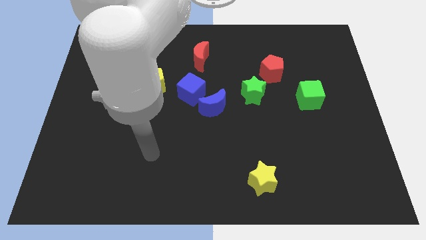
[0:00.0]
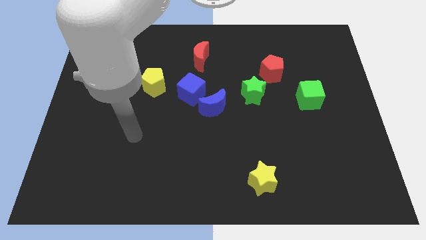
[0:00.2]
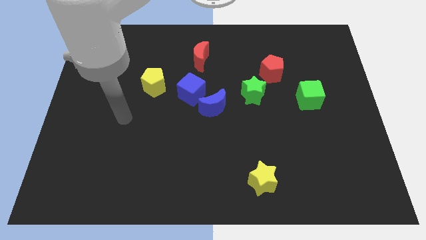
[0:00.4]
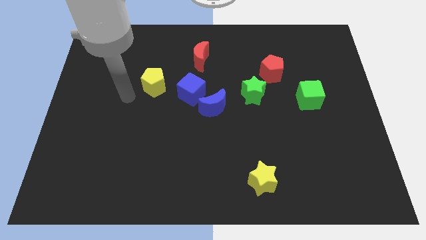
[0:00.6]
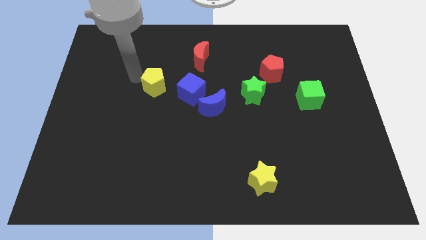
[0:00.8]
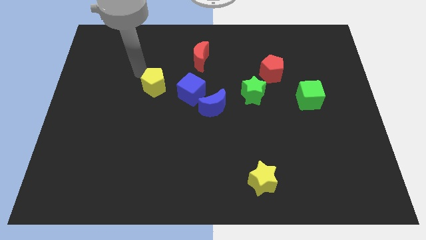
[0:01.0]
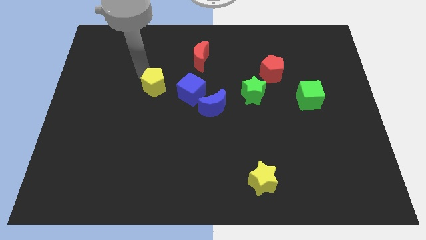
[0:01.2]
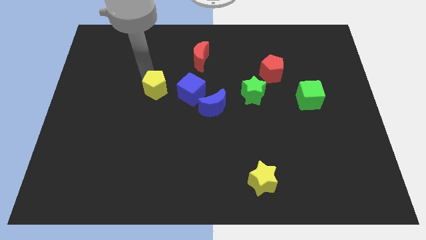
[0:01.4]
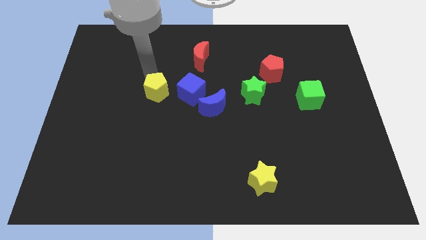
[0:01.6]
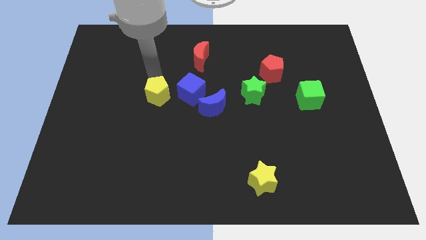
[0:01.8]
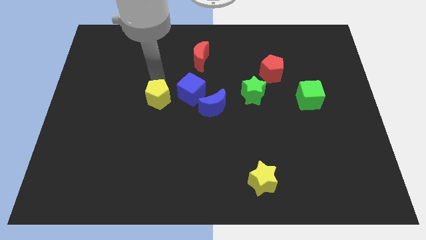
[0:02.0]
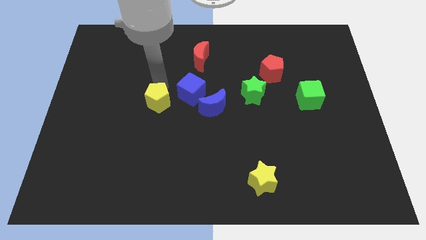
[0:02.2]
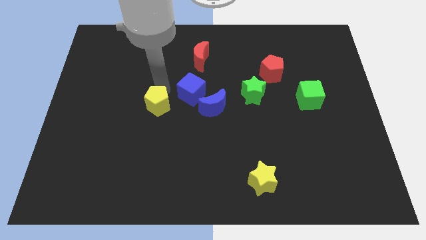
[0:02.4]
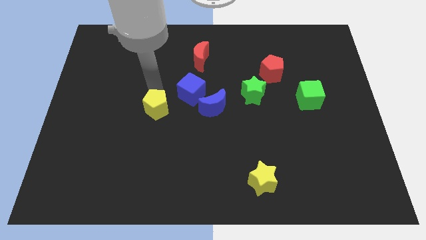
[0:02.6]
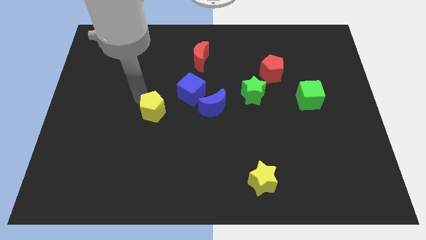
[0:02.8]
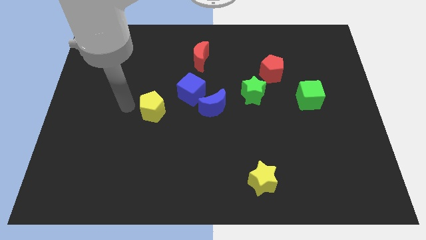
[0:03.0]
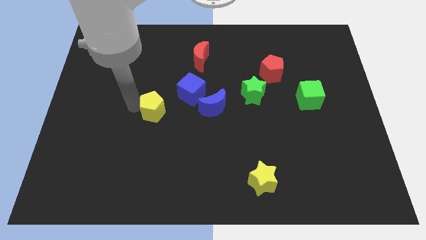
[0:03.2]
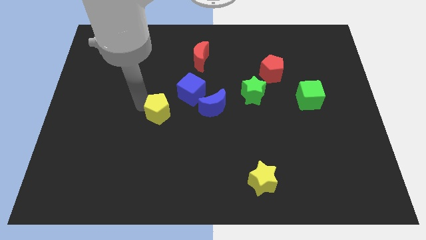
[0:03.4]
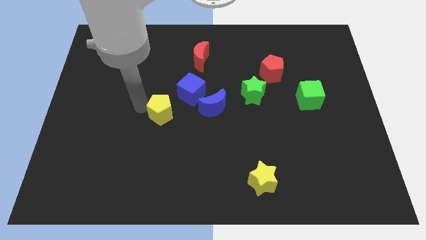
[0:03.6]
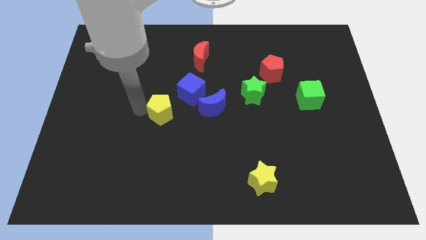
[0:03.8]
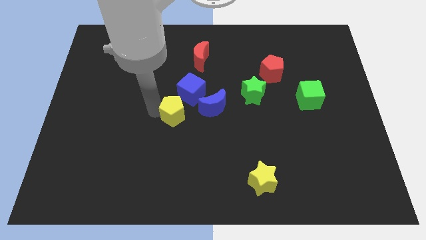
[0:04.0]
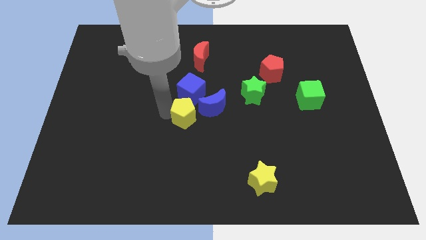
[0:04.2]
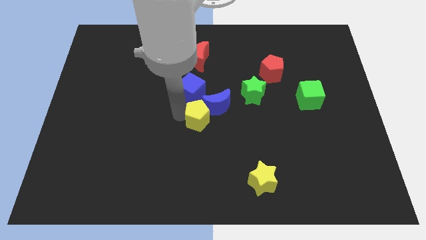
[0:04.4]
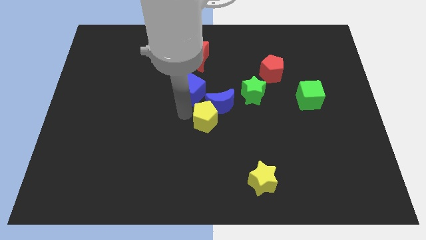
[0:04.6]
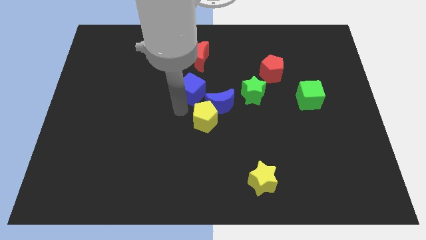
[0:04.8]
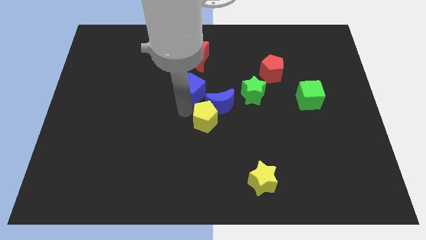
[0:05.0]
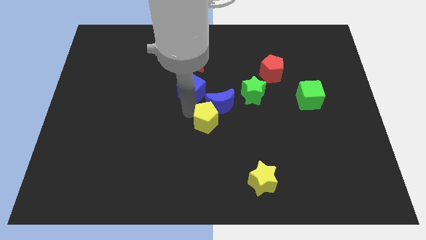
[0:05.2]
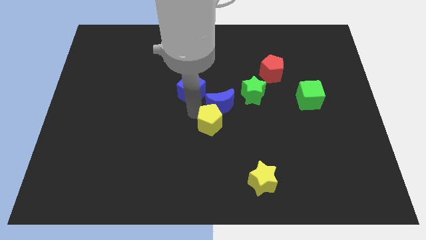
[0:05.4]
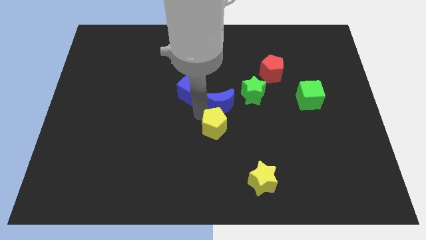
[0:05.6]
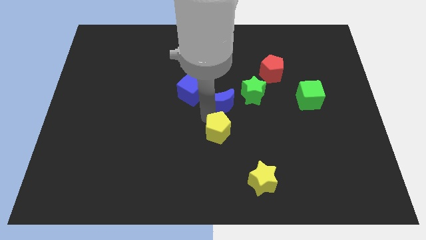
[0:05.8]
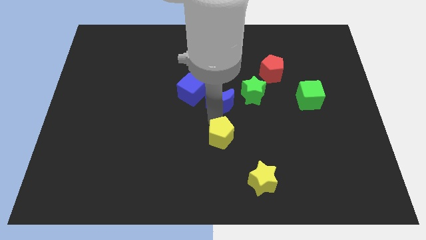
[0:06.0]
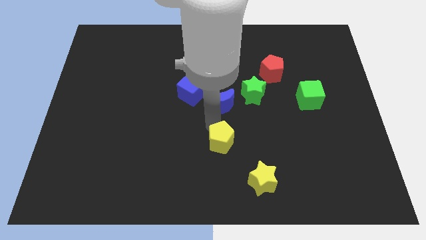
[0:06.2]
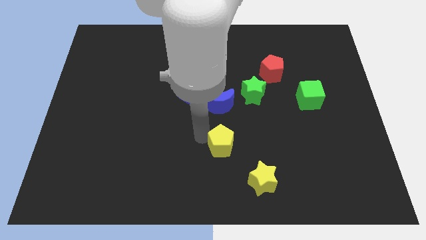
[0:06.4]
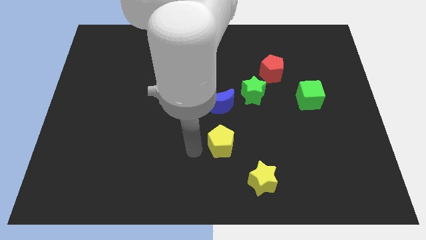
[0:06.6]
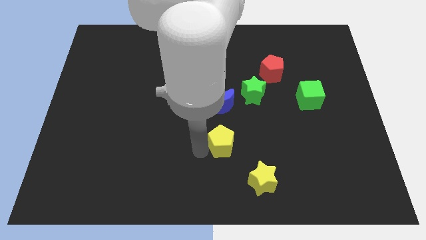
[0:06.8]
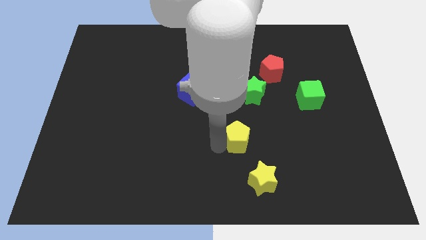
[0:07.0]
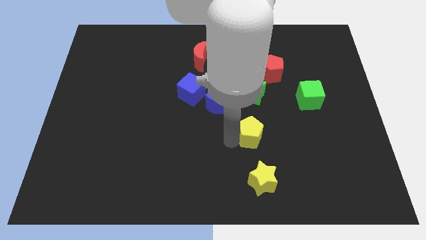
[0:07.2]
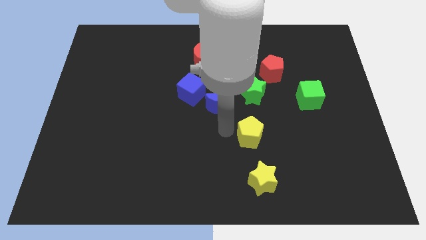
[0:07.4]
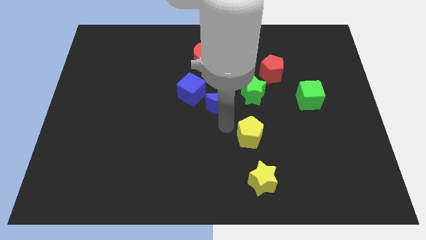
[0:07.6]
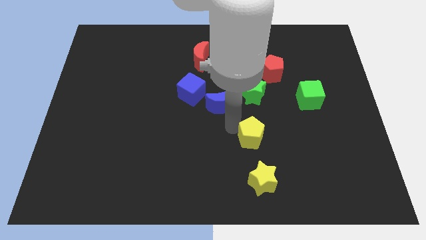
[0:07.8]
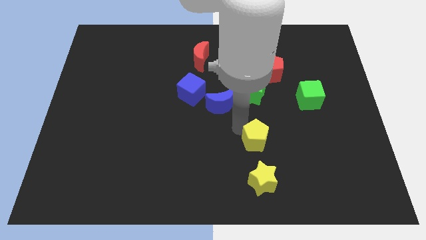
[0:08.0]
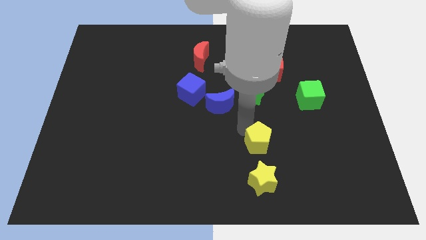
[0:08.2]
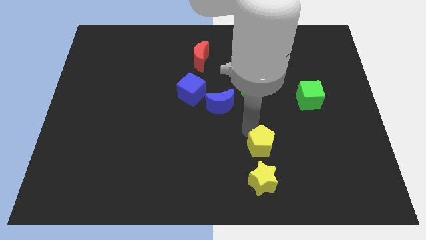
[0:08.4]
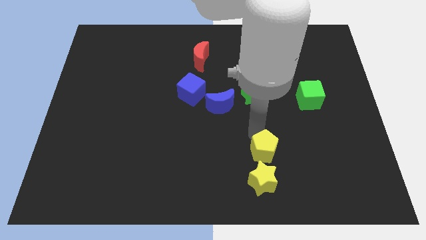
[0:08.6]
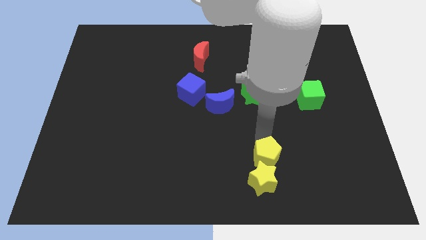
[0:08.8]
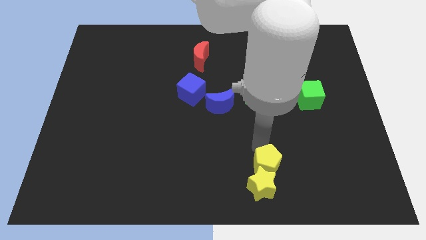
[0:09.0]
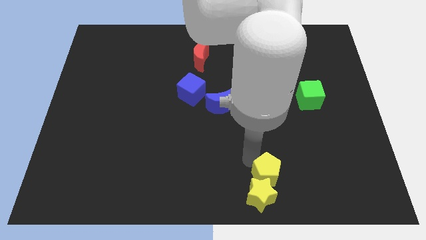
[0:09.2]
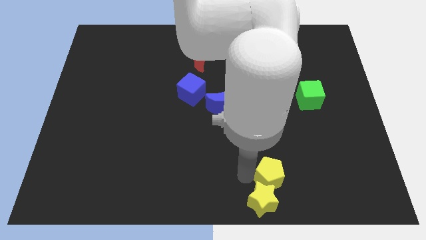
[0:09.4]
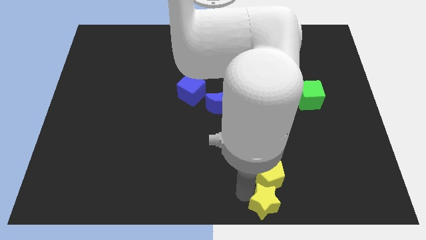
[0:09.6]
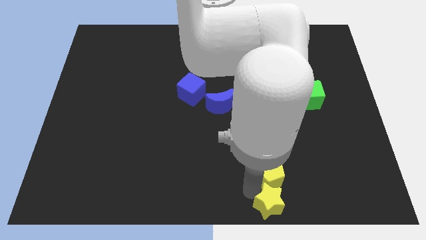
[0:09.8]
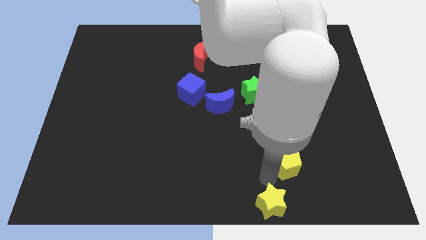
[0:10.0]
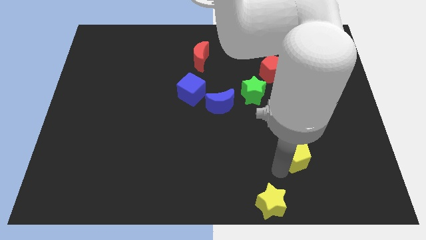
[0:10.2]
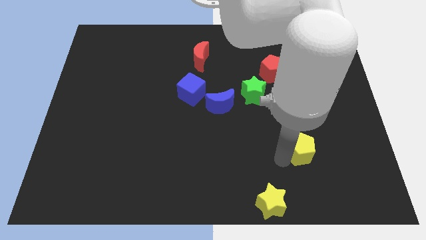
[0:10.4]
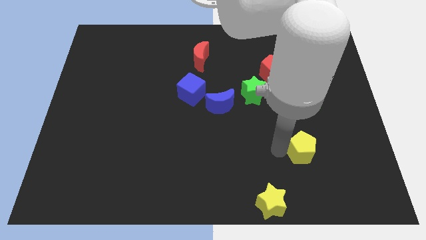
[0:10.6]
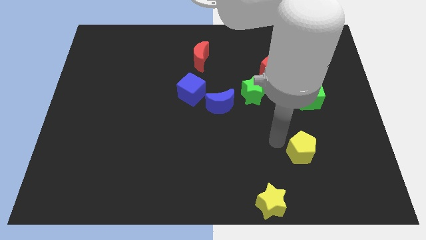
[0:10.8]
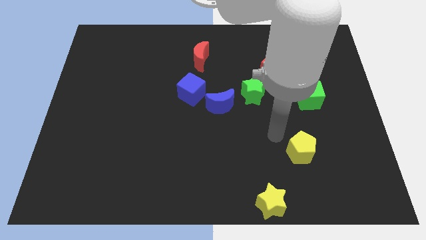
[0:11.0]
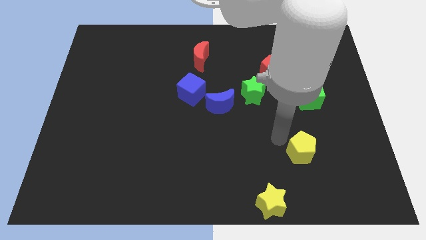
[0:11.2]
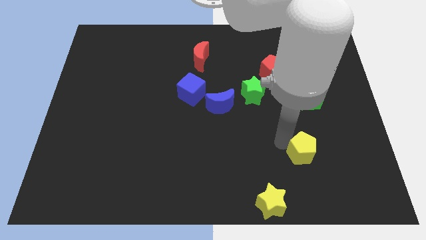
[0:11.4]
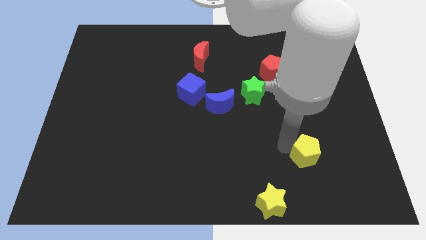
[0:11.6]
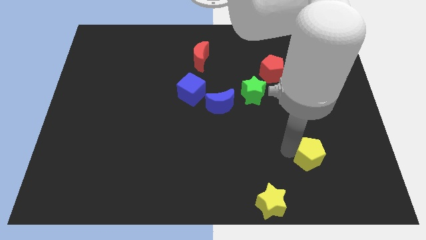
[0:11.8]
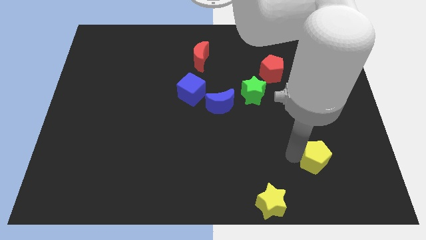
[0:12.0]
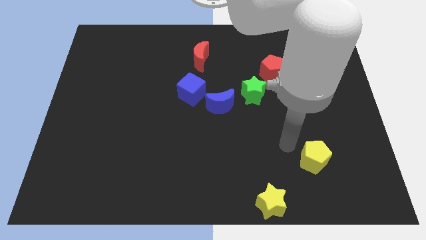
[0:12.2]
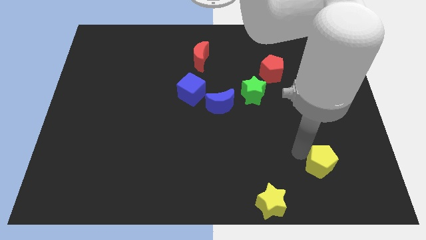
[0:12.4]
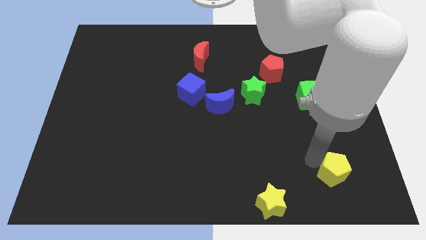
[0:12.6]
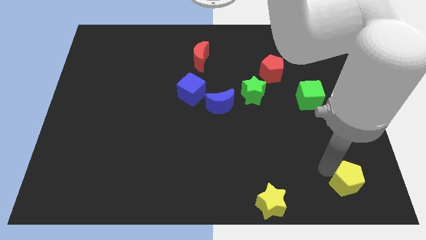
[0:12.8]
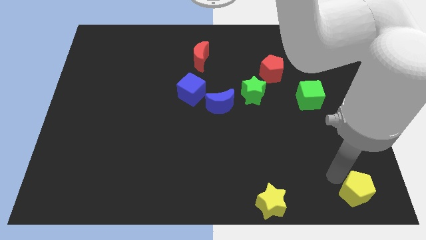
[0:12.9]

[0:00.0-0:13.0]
slide the yellow pentagon to the bottom right of the board

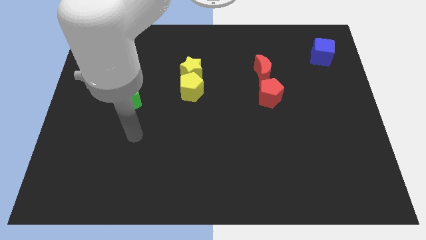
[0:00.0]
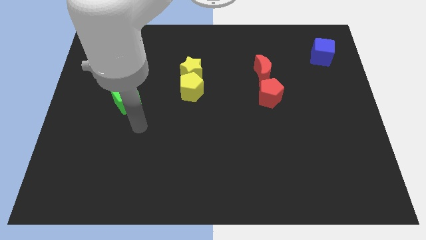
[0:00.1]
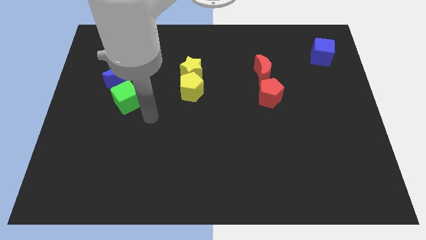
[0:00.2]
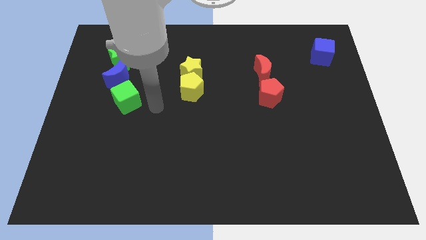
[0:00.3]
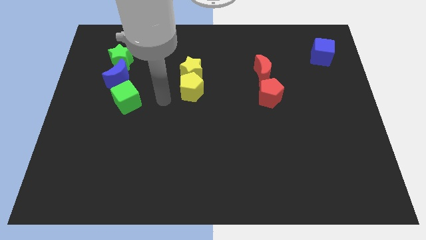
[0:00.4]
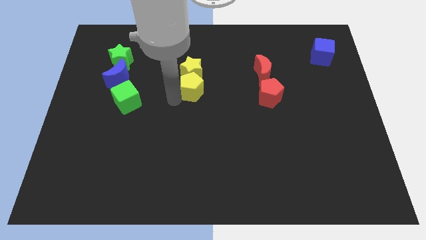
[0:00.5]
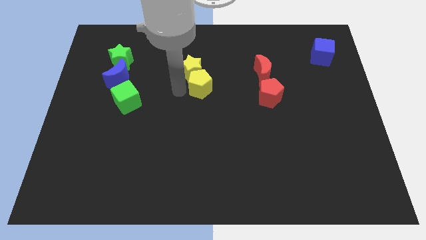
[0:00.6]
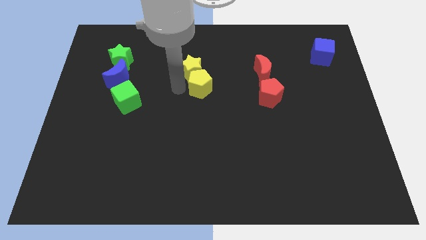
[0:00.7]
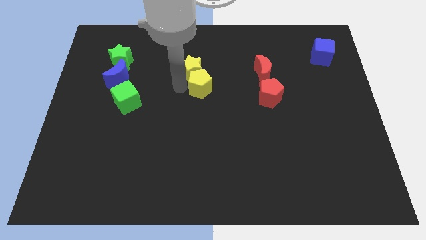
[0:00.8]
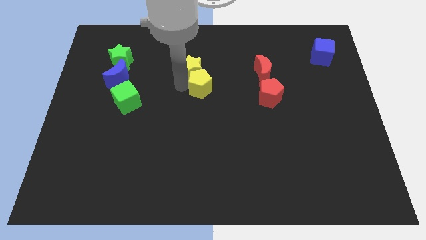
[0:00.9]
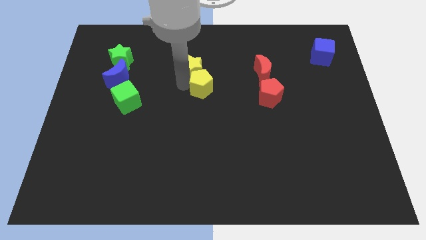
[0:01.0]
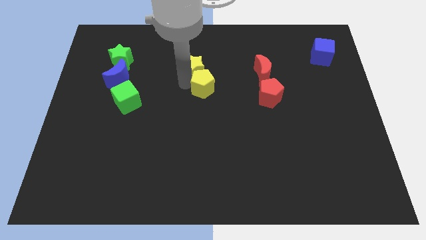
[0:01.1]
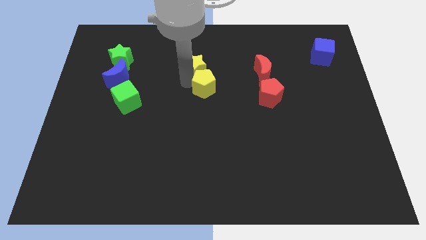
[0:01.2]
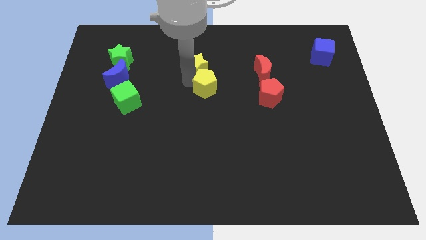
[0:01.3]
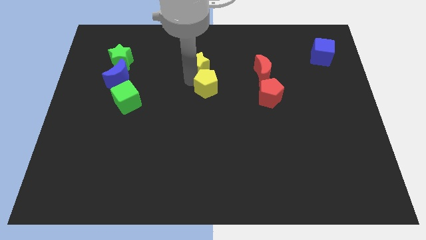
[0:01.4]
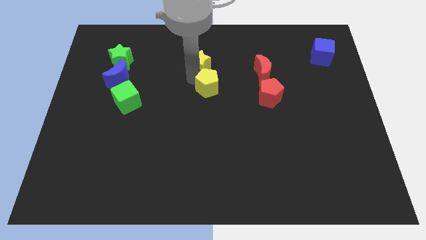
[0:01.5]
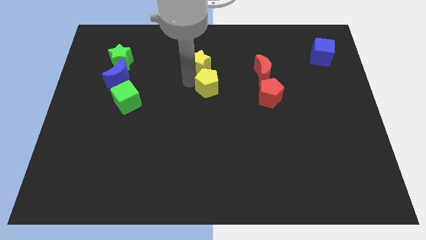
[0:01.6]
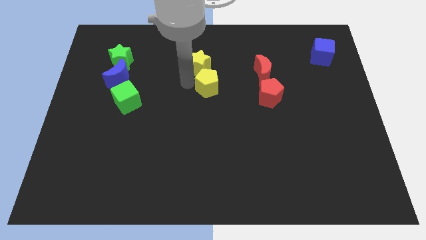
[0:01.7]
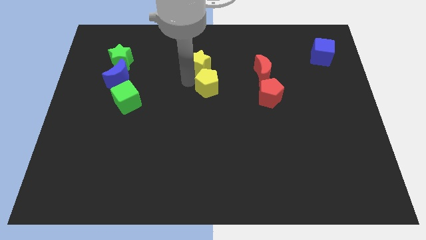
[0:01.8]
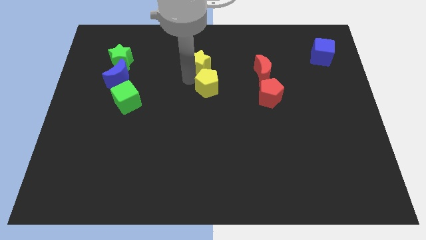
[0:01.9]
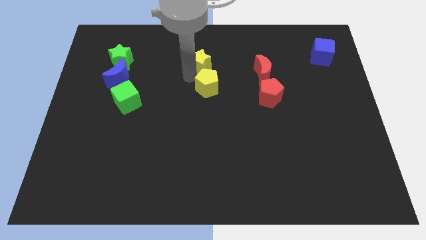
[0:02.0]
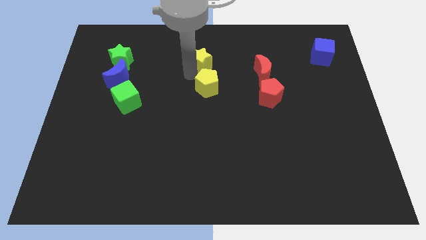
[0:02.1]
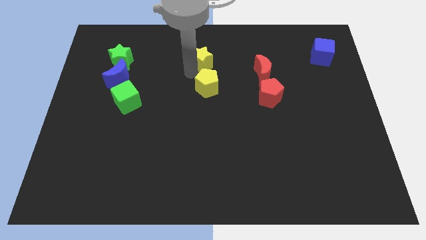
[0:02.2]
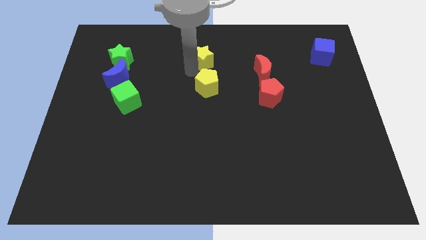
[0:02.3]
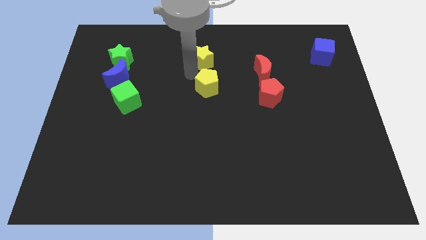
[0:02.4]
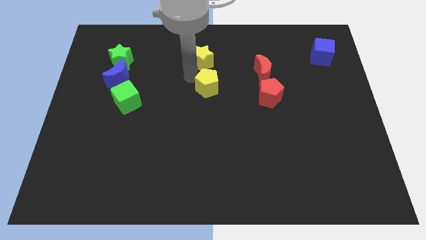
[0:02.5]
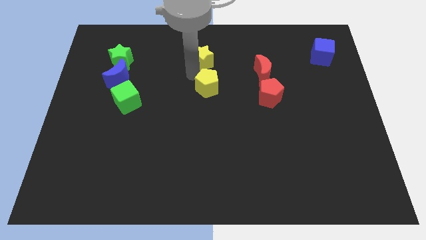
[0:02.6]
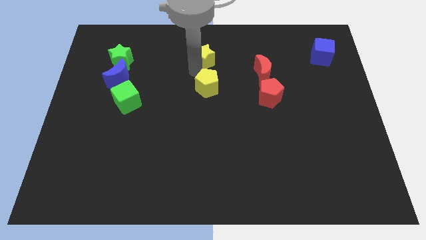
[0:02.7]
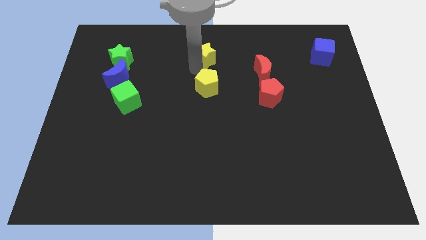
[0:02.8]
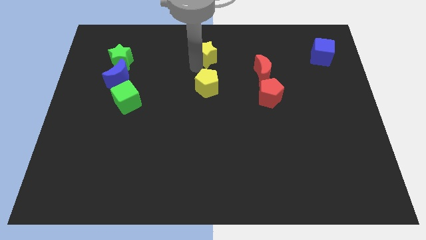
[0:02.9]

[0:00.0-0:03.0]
put the yellow star to the top side
